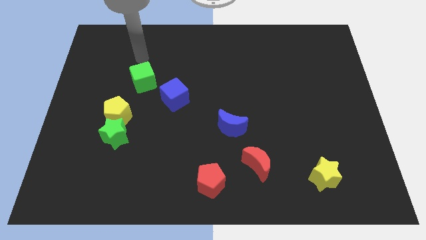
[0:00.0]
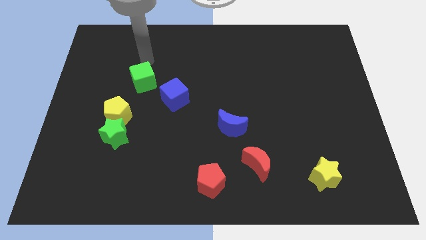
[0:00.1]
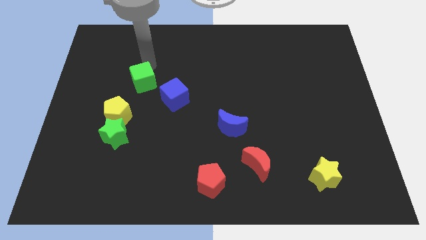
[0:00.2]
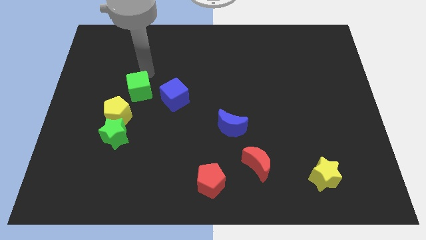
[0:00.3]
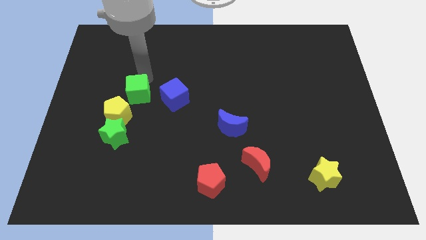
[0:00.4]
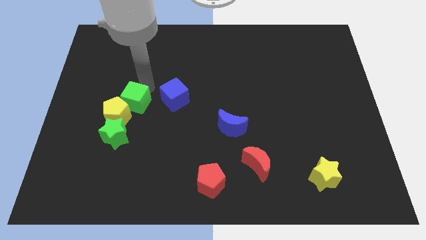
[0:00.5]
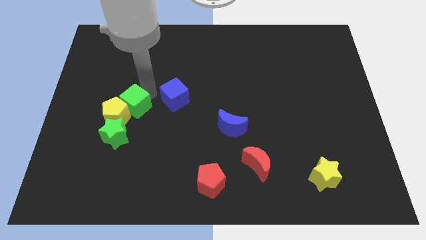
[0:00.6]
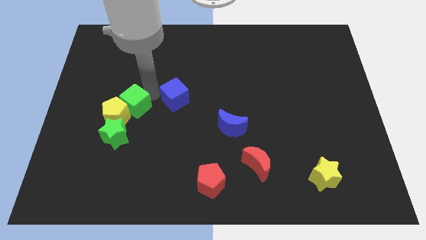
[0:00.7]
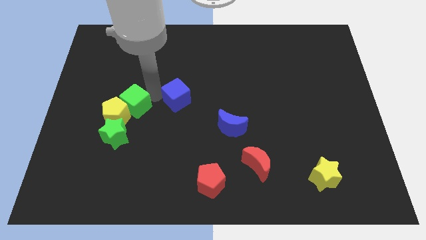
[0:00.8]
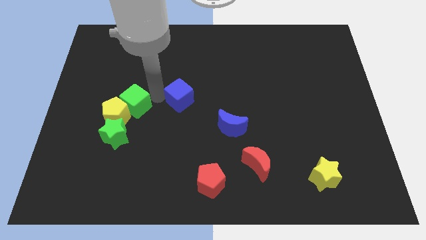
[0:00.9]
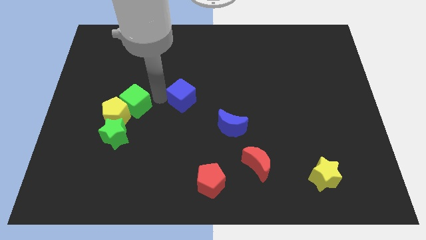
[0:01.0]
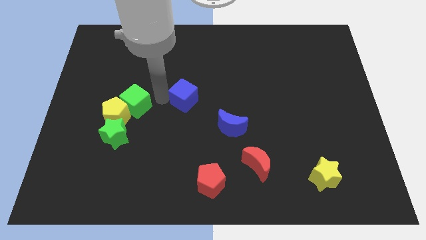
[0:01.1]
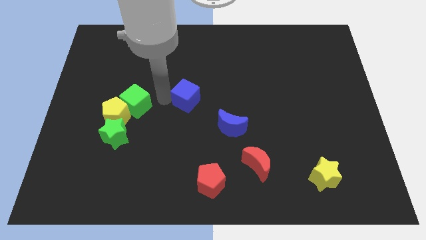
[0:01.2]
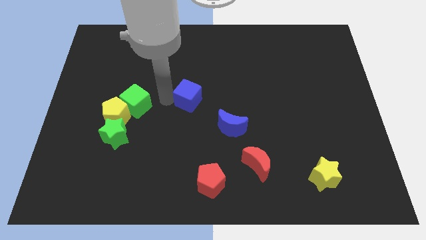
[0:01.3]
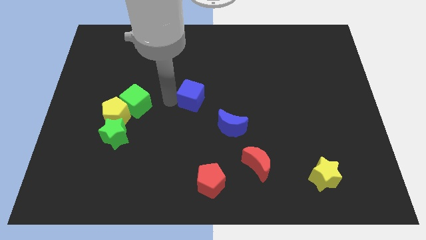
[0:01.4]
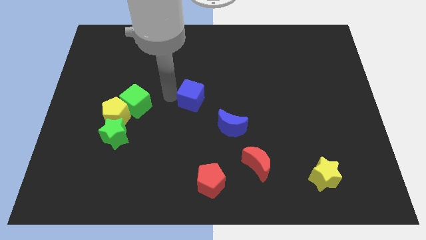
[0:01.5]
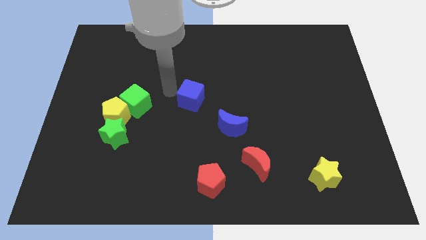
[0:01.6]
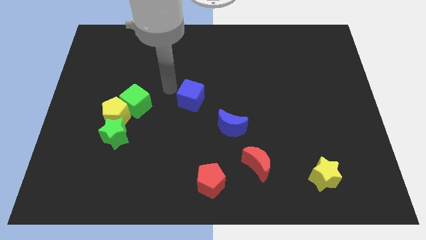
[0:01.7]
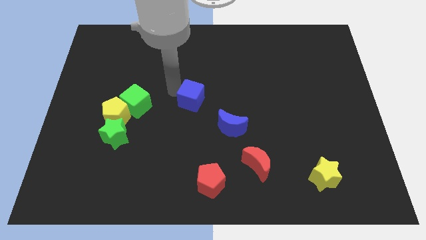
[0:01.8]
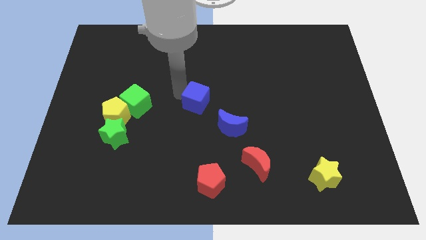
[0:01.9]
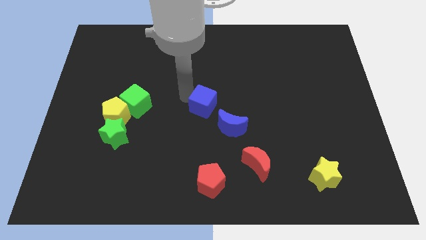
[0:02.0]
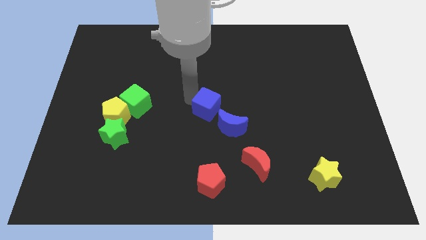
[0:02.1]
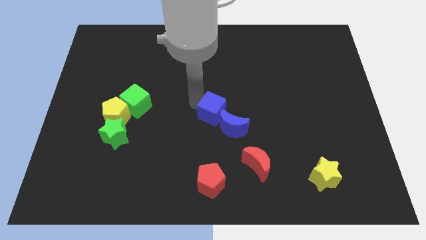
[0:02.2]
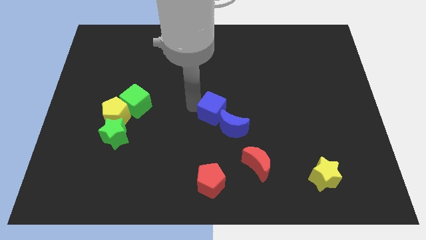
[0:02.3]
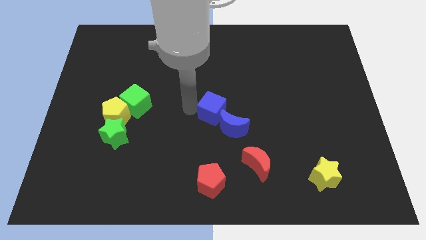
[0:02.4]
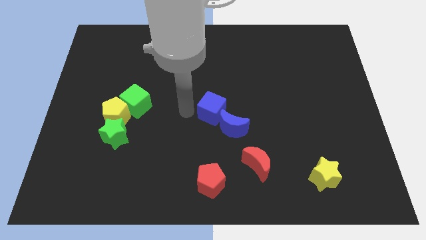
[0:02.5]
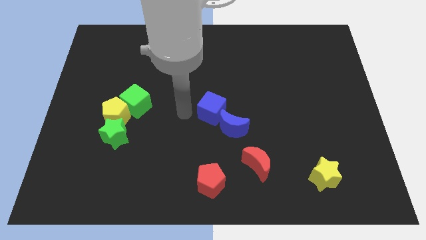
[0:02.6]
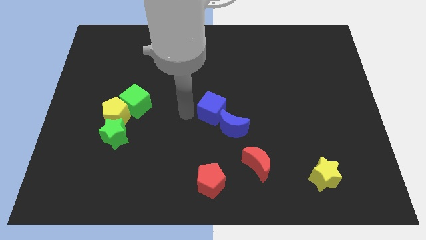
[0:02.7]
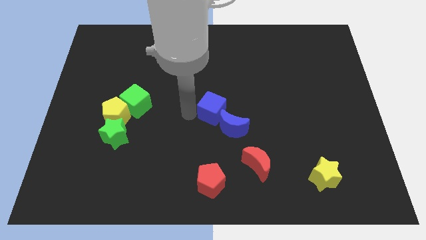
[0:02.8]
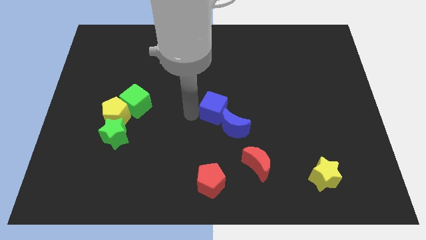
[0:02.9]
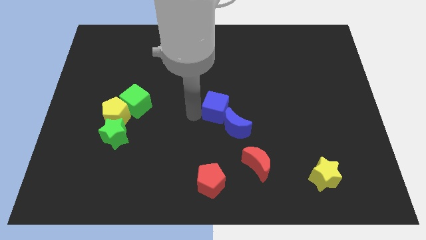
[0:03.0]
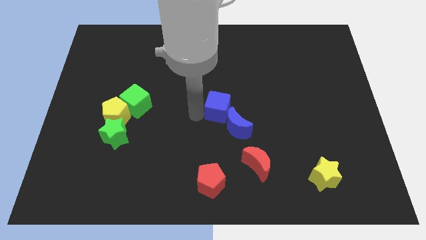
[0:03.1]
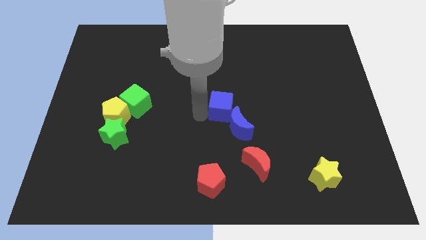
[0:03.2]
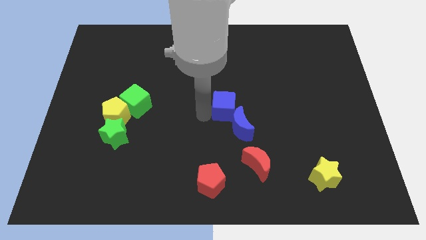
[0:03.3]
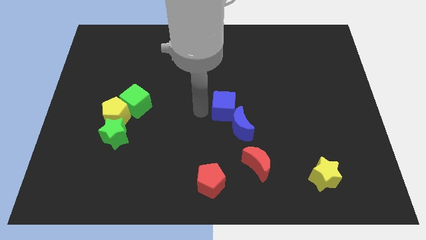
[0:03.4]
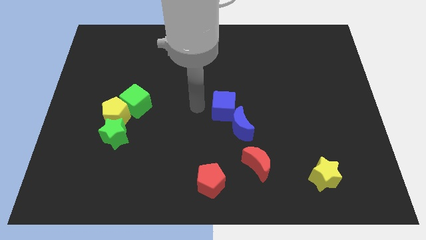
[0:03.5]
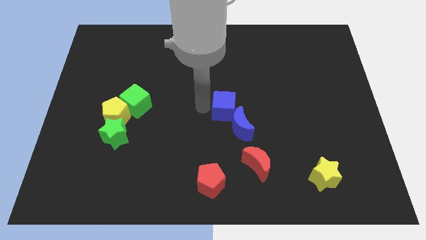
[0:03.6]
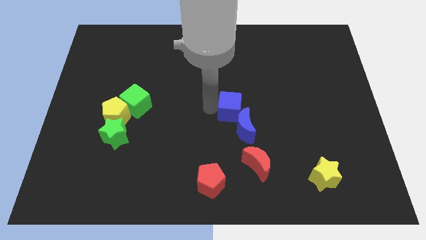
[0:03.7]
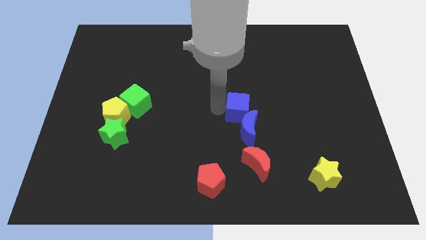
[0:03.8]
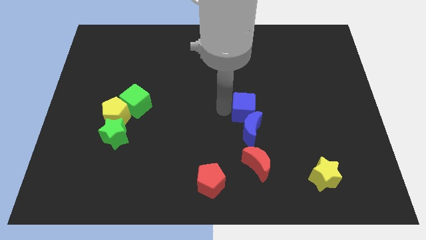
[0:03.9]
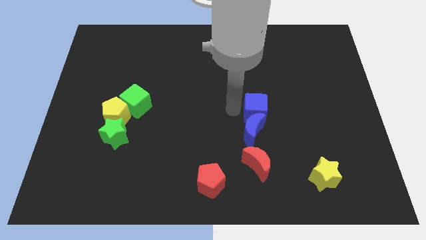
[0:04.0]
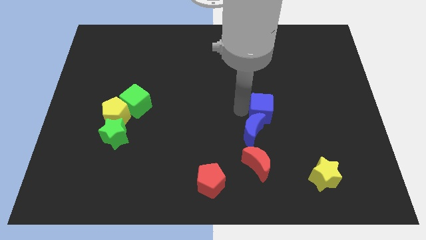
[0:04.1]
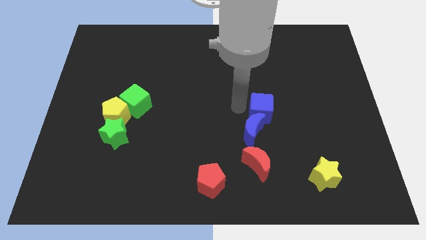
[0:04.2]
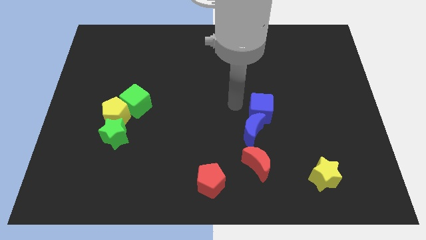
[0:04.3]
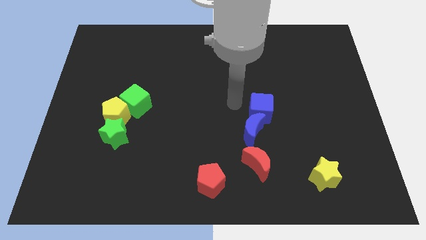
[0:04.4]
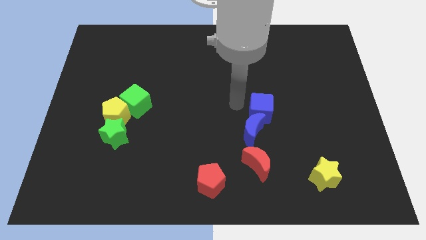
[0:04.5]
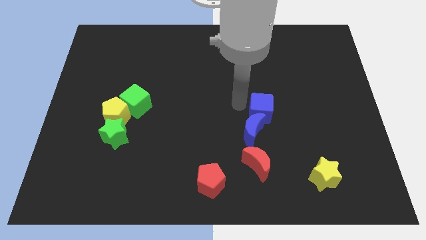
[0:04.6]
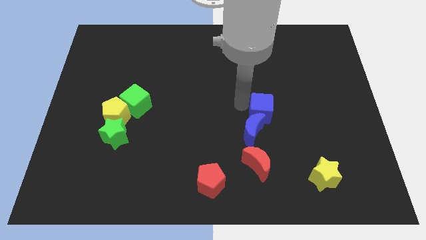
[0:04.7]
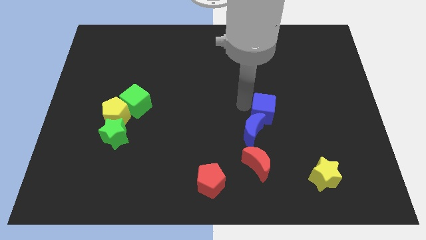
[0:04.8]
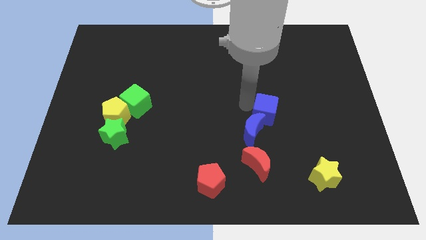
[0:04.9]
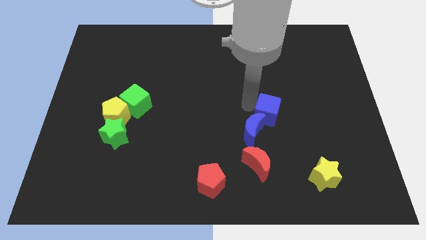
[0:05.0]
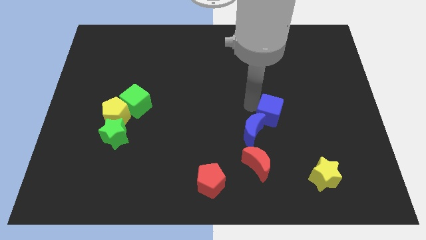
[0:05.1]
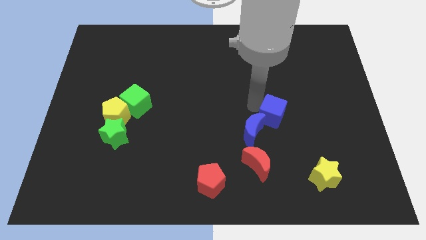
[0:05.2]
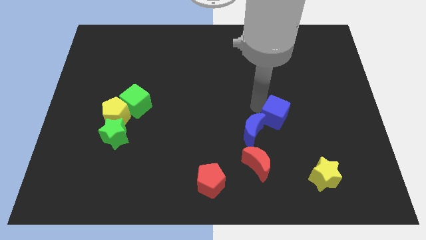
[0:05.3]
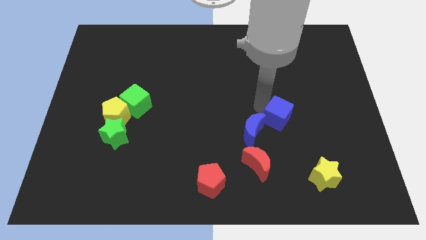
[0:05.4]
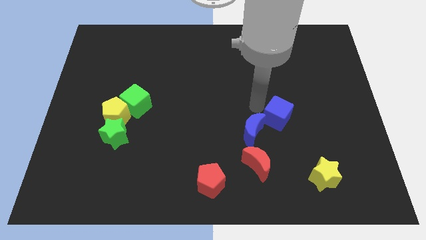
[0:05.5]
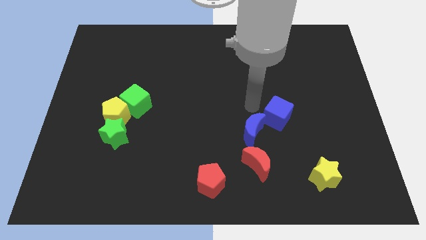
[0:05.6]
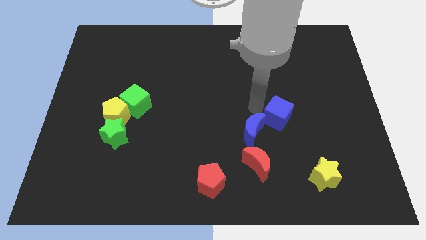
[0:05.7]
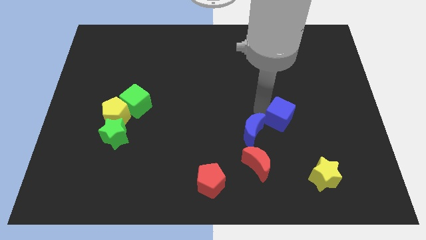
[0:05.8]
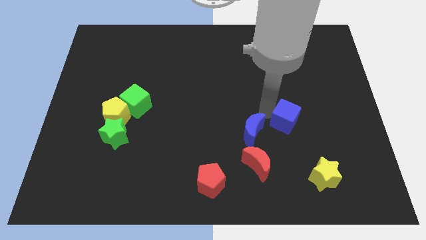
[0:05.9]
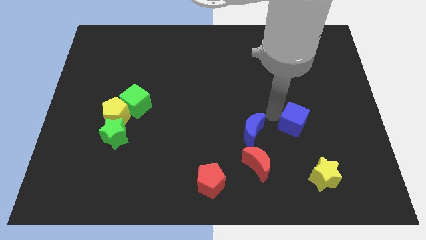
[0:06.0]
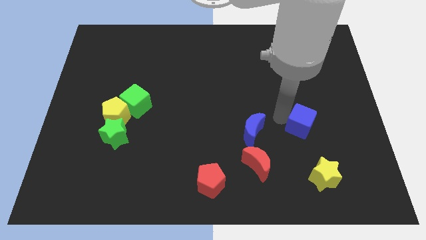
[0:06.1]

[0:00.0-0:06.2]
move the blue cube to the top side of the yellow star

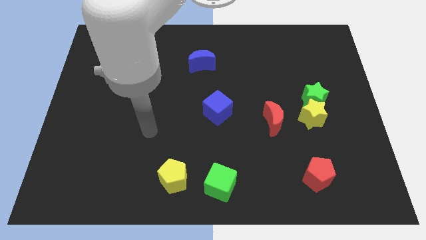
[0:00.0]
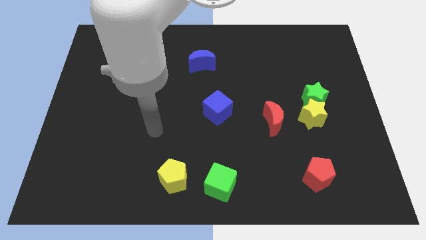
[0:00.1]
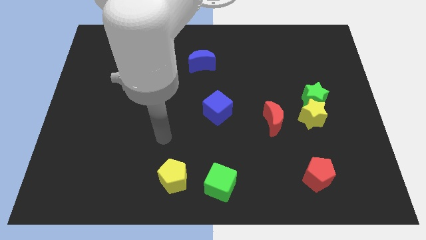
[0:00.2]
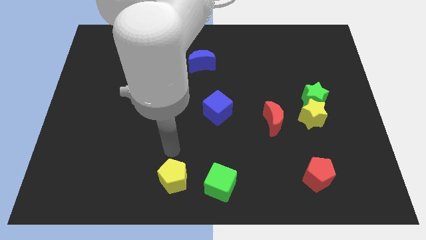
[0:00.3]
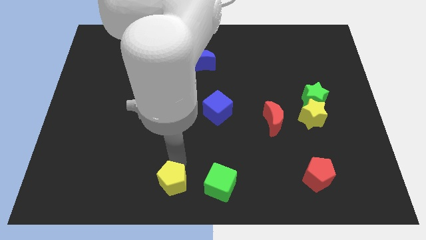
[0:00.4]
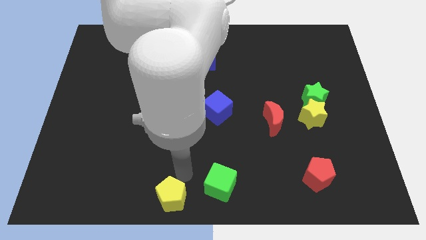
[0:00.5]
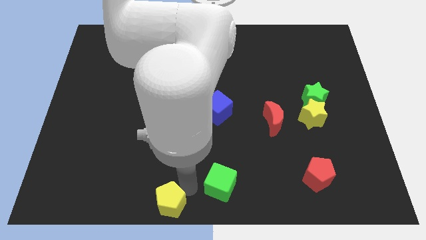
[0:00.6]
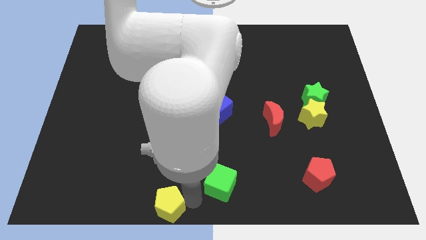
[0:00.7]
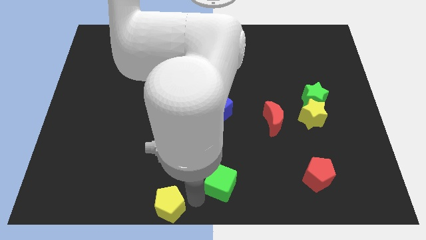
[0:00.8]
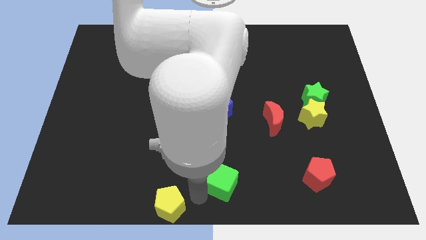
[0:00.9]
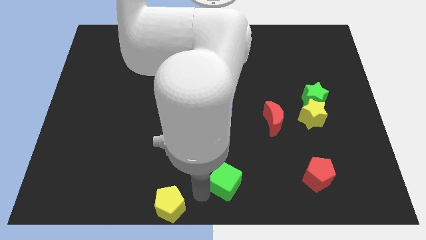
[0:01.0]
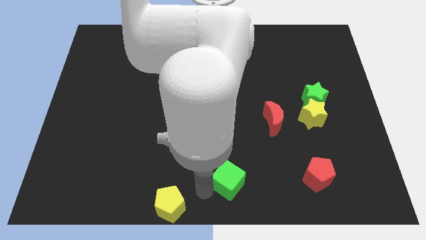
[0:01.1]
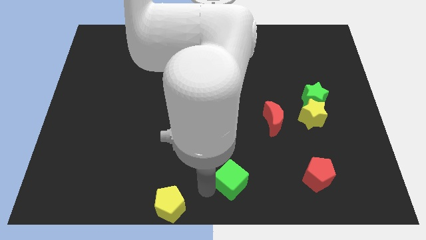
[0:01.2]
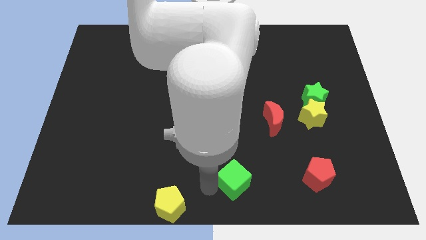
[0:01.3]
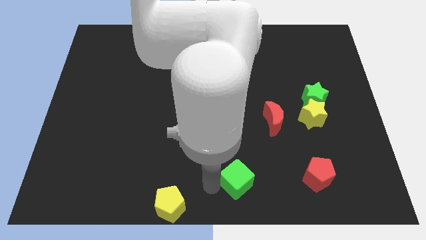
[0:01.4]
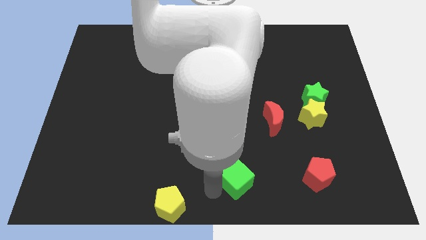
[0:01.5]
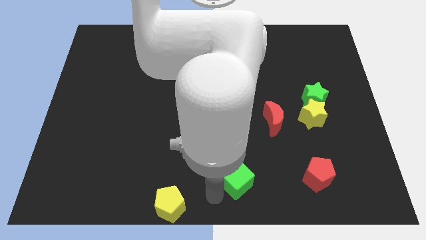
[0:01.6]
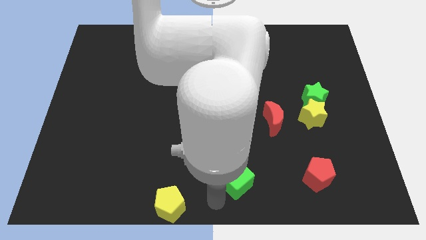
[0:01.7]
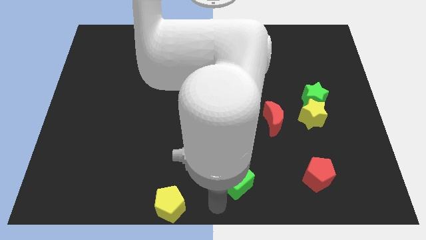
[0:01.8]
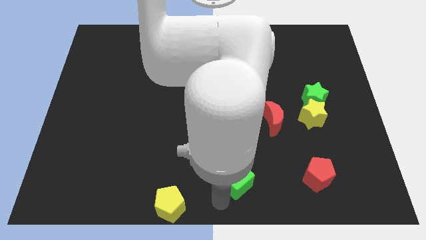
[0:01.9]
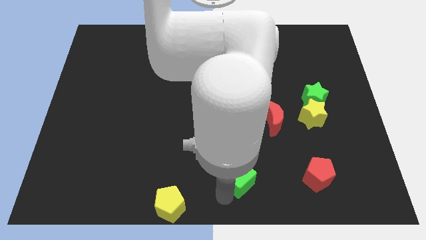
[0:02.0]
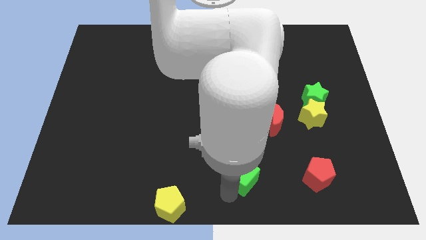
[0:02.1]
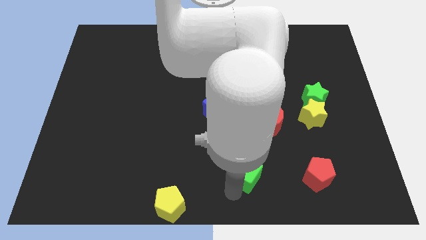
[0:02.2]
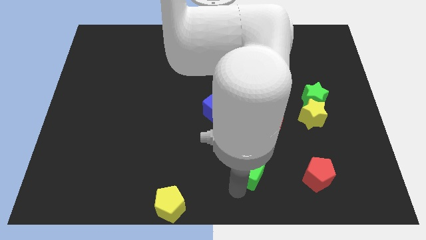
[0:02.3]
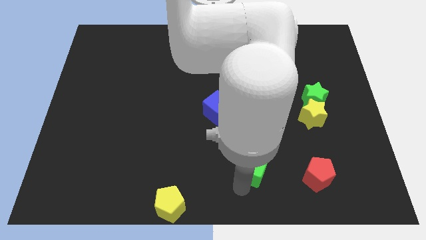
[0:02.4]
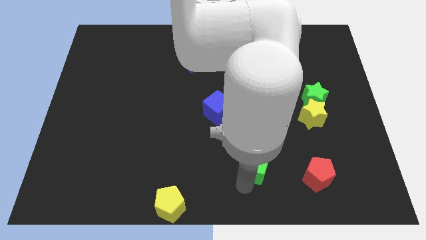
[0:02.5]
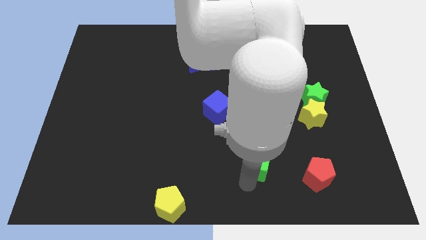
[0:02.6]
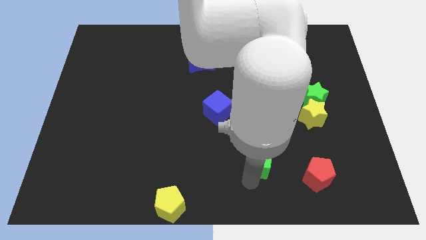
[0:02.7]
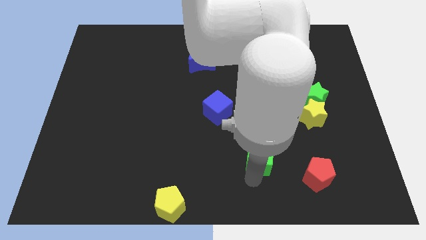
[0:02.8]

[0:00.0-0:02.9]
put the green cube diagonally down and to the left of the red moon
